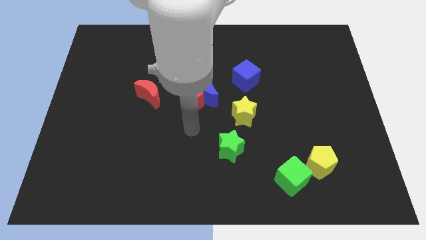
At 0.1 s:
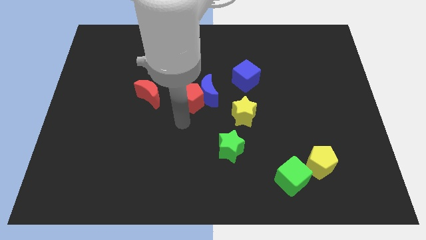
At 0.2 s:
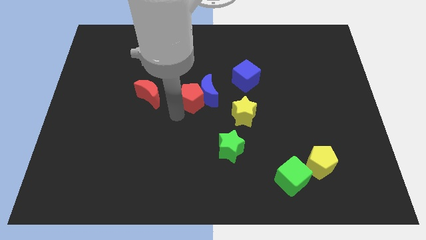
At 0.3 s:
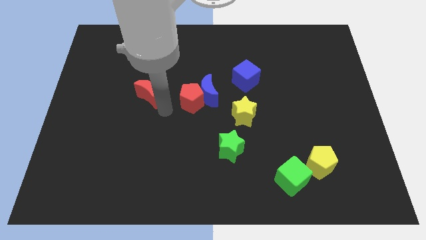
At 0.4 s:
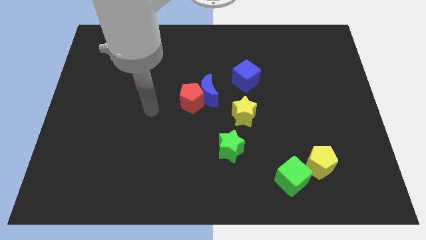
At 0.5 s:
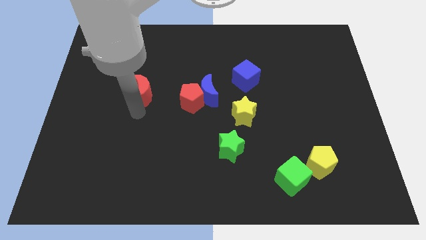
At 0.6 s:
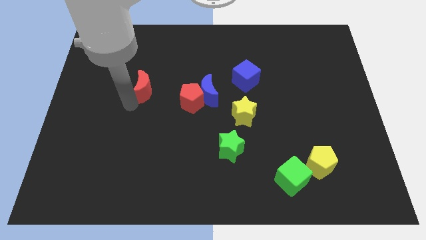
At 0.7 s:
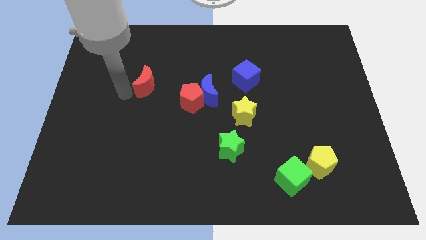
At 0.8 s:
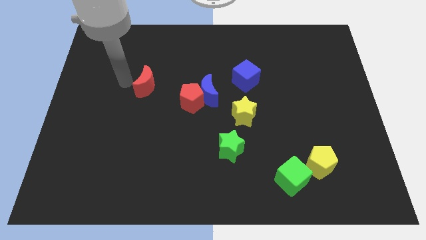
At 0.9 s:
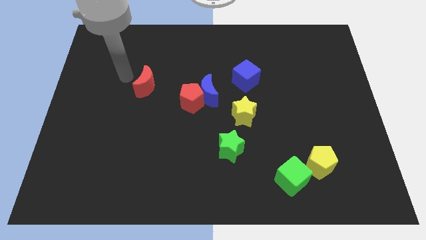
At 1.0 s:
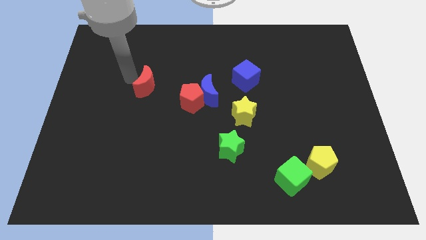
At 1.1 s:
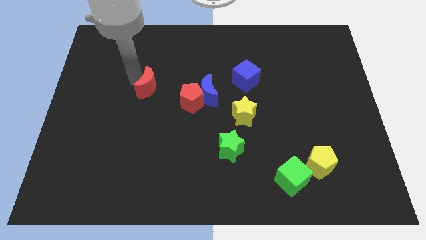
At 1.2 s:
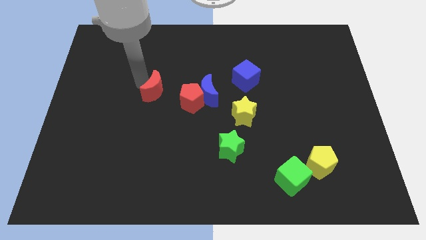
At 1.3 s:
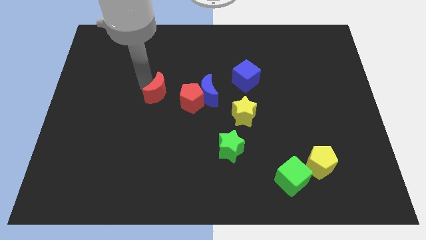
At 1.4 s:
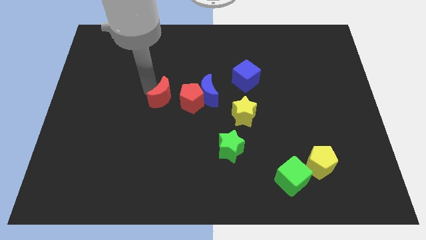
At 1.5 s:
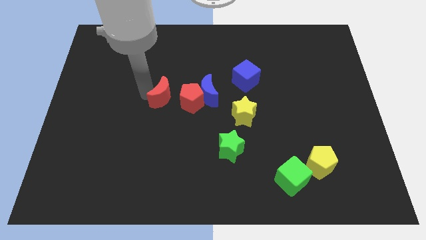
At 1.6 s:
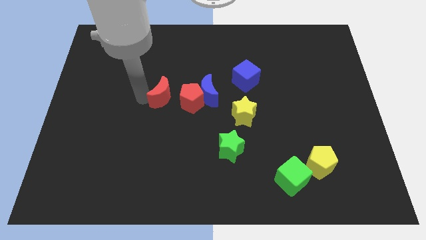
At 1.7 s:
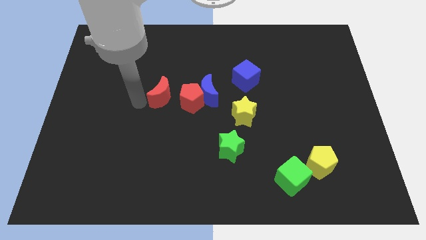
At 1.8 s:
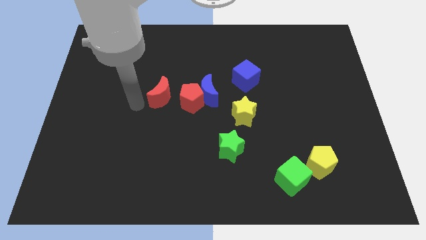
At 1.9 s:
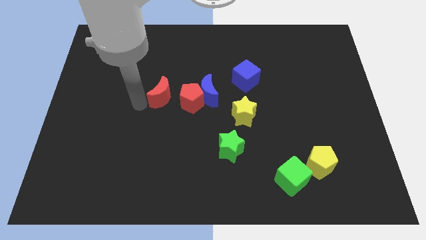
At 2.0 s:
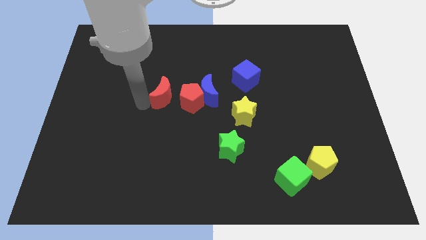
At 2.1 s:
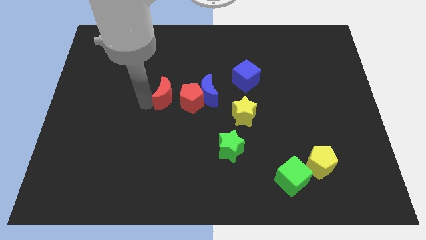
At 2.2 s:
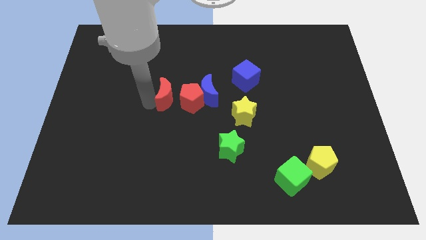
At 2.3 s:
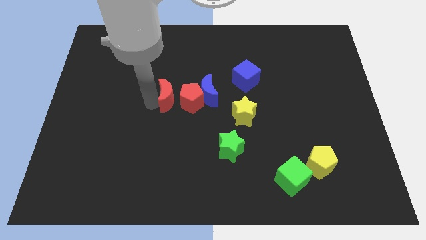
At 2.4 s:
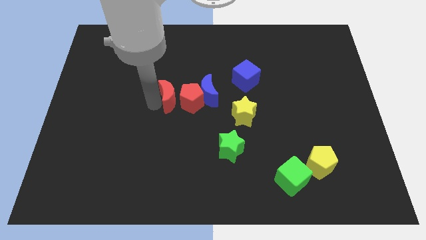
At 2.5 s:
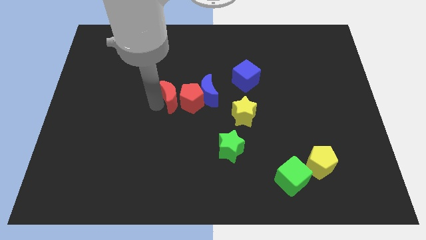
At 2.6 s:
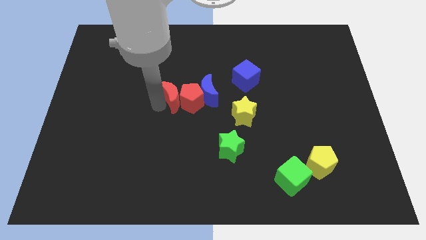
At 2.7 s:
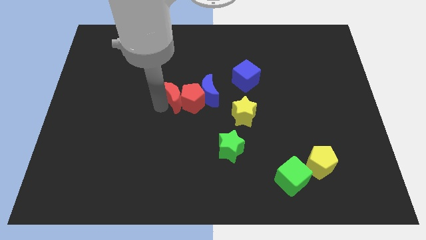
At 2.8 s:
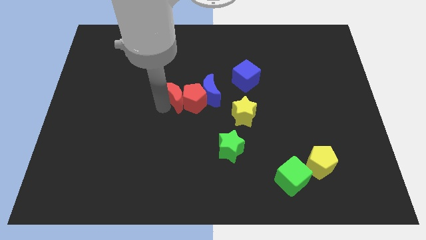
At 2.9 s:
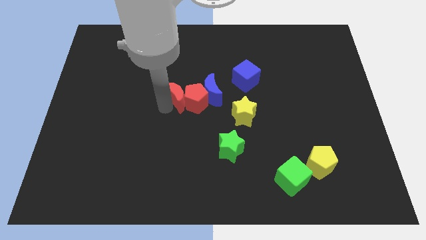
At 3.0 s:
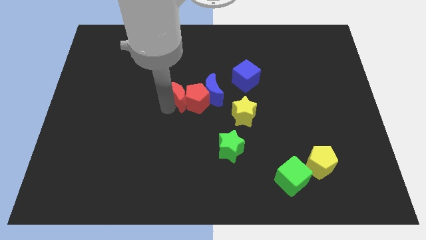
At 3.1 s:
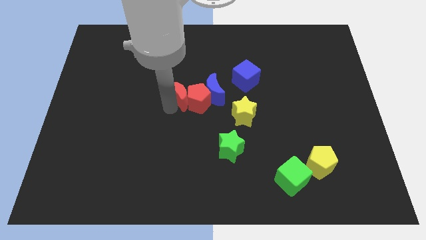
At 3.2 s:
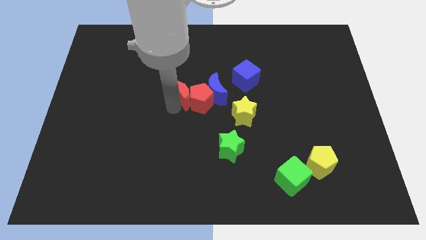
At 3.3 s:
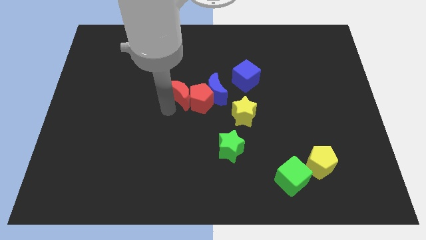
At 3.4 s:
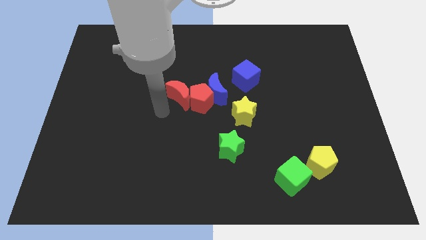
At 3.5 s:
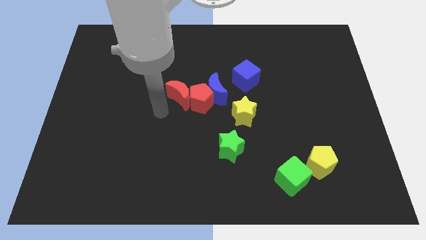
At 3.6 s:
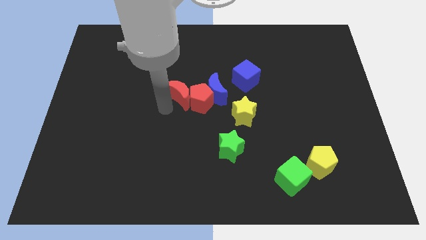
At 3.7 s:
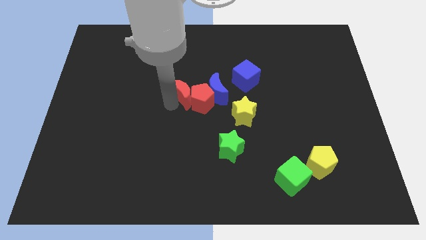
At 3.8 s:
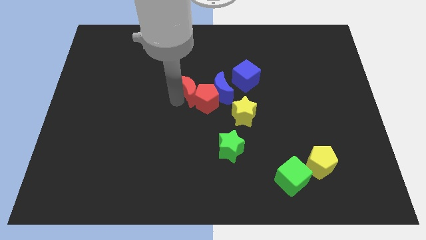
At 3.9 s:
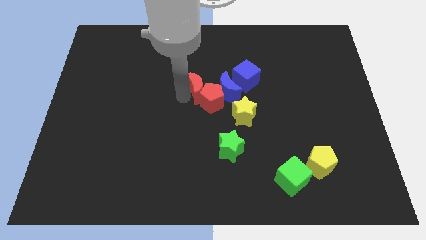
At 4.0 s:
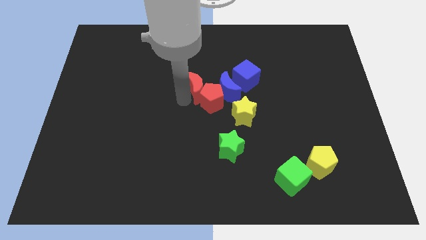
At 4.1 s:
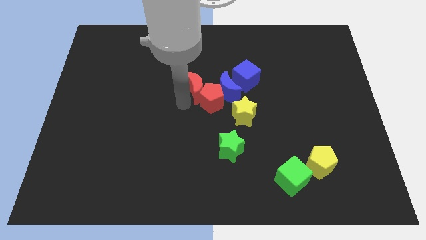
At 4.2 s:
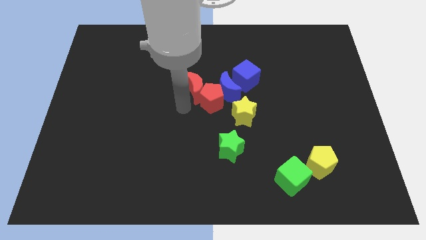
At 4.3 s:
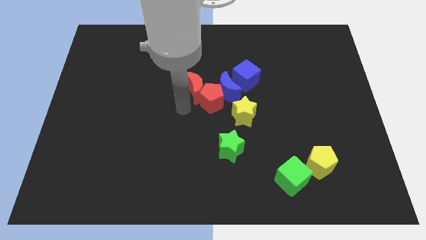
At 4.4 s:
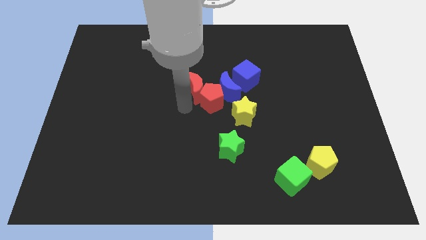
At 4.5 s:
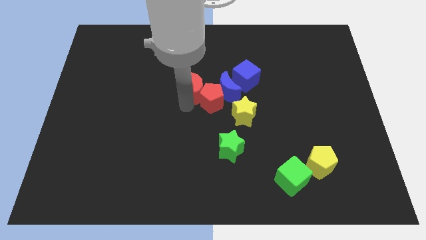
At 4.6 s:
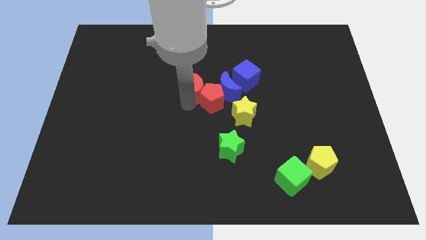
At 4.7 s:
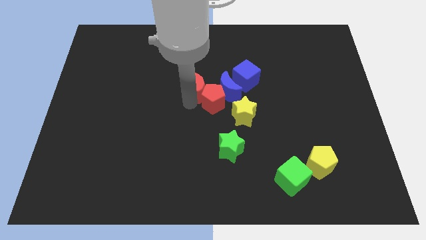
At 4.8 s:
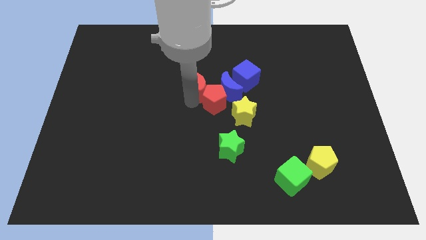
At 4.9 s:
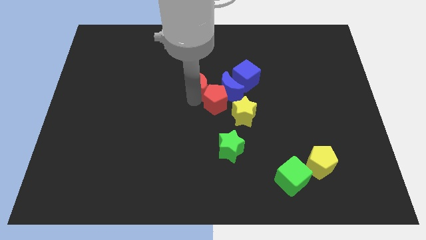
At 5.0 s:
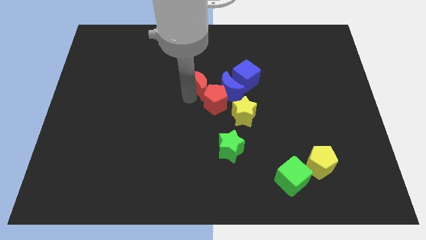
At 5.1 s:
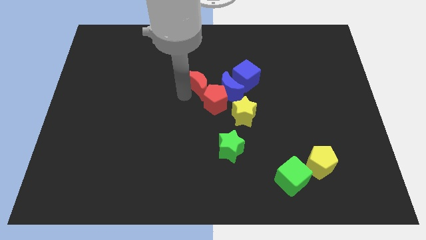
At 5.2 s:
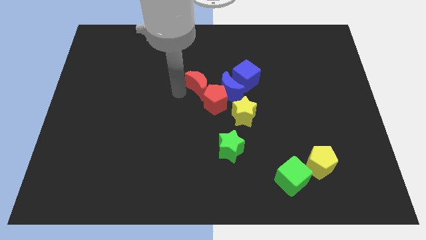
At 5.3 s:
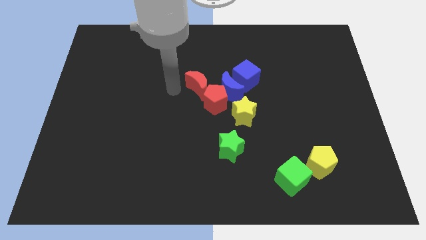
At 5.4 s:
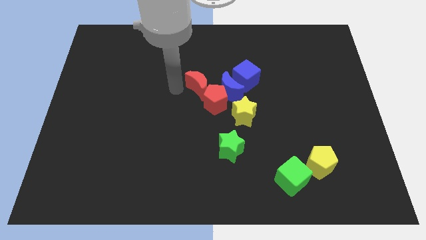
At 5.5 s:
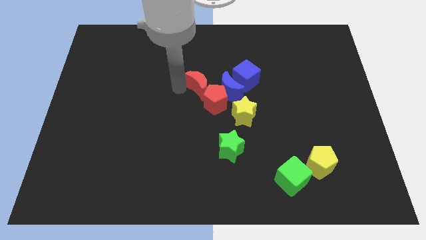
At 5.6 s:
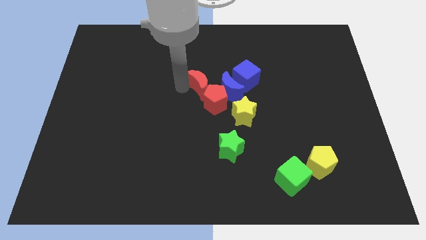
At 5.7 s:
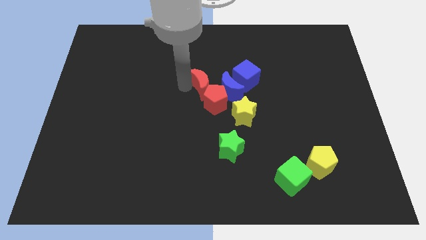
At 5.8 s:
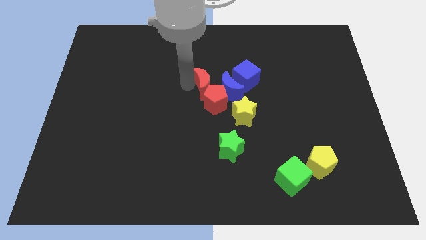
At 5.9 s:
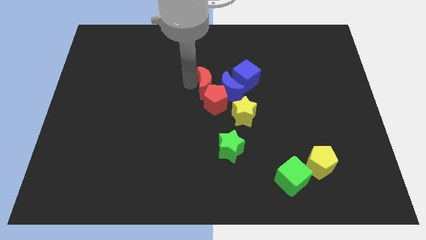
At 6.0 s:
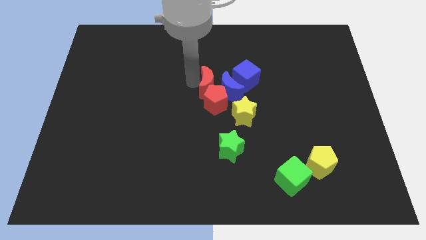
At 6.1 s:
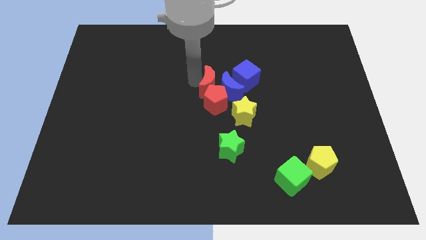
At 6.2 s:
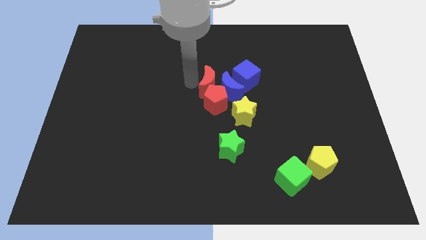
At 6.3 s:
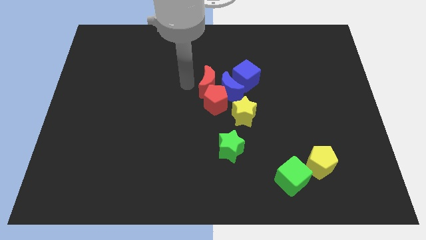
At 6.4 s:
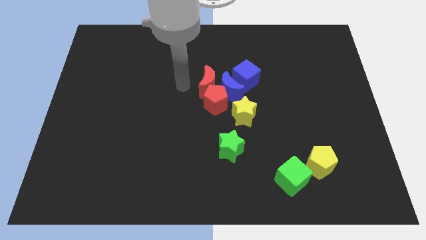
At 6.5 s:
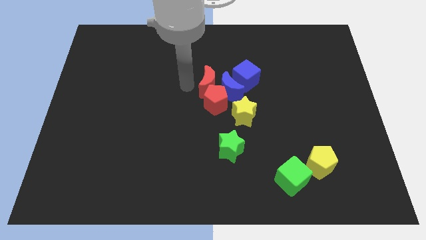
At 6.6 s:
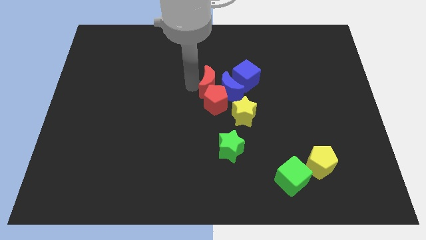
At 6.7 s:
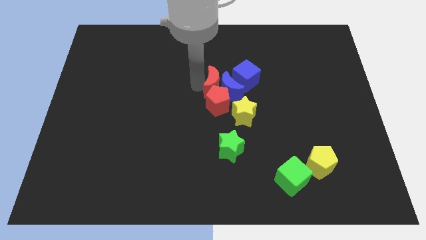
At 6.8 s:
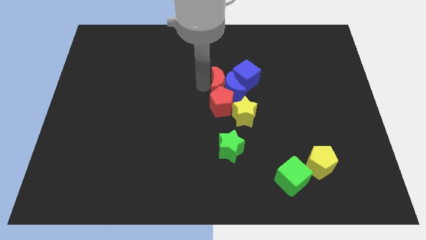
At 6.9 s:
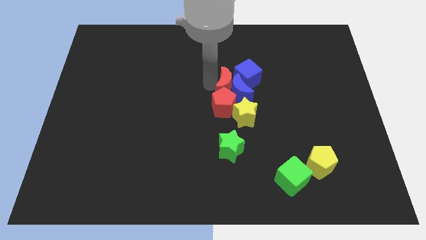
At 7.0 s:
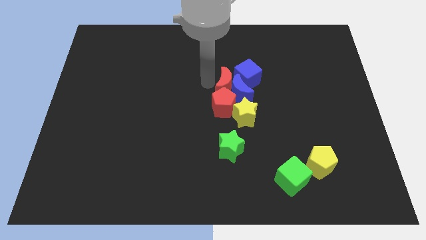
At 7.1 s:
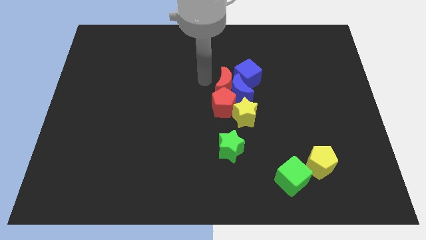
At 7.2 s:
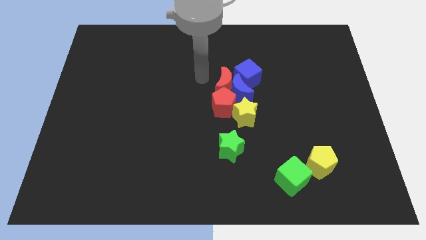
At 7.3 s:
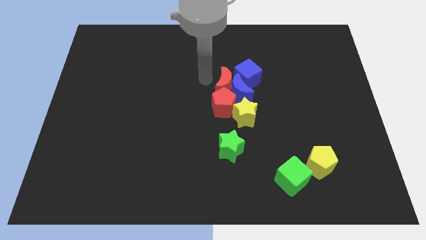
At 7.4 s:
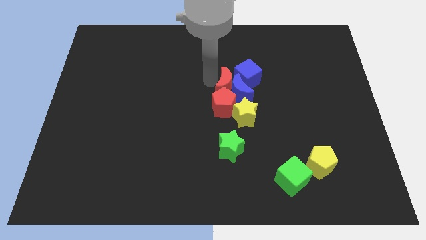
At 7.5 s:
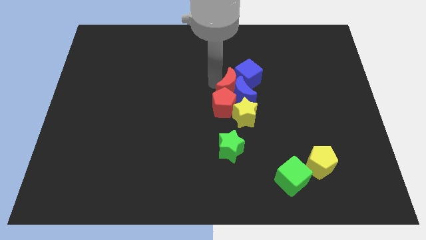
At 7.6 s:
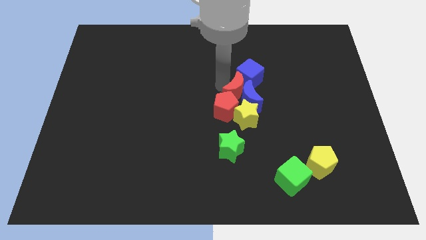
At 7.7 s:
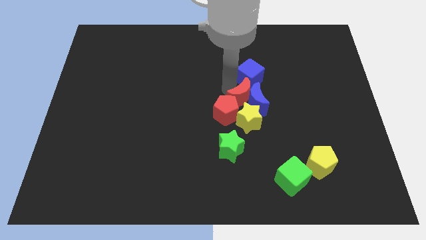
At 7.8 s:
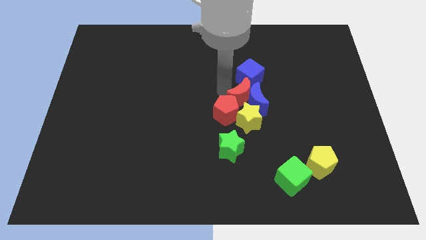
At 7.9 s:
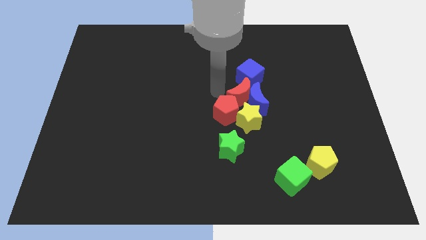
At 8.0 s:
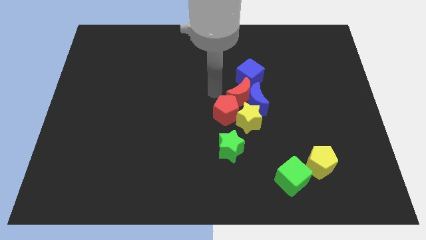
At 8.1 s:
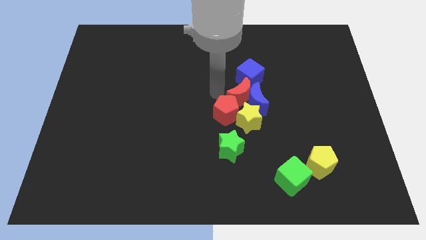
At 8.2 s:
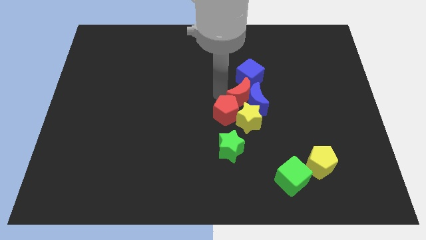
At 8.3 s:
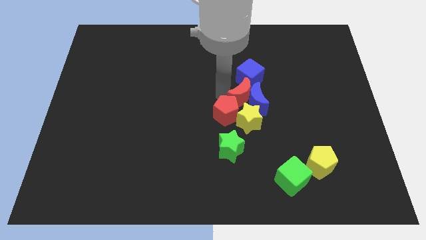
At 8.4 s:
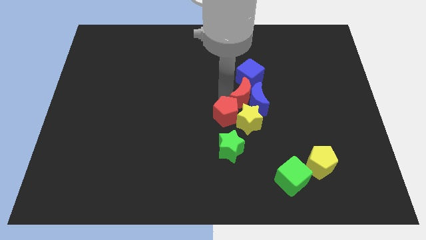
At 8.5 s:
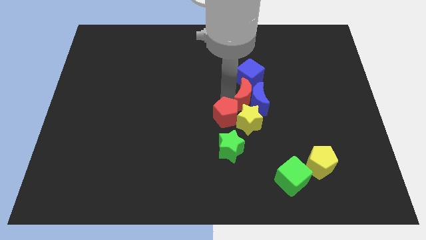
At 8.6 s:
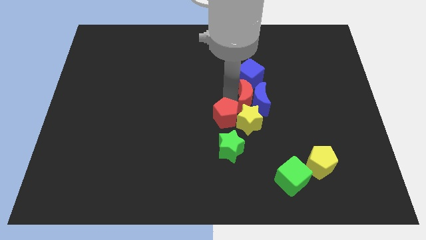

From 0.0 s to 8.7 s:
move the red moon to the top right of the yellow star
